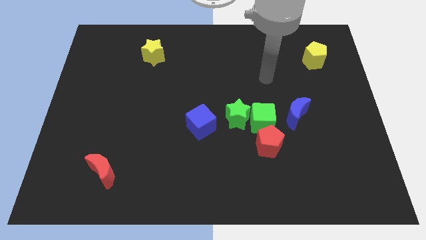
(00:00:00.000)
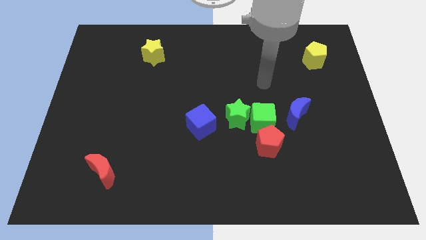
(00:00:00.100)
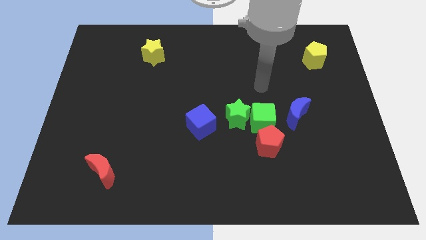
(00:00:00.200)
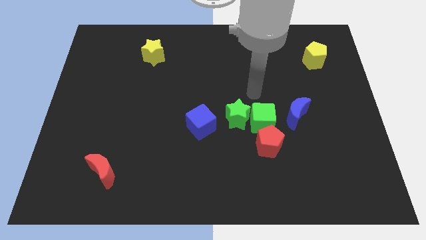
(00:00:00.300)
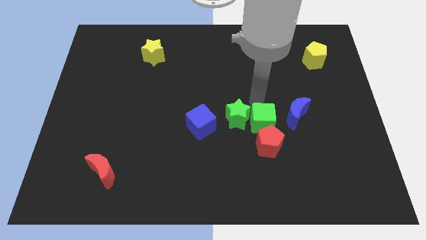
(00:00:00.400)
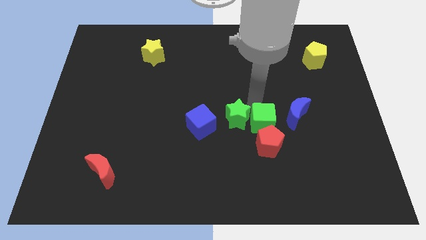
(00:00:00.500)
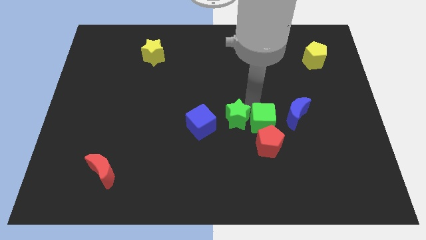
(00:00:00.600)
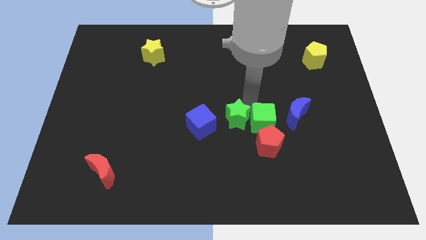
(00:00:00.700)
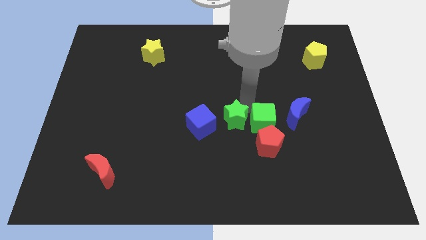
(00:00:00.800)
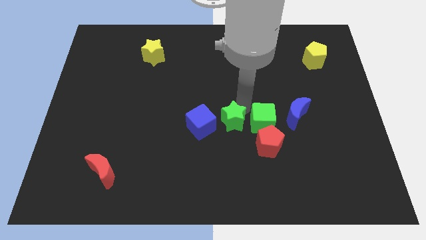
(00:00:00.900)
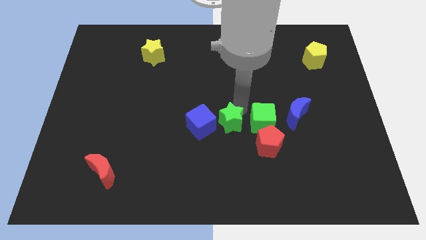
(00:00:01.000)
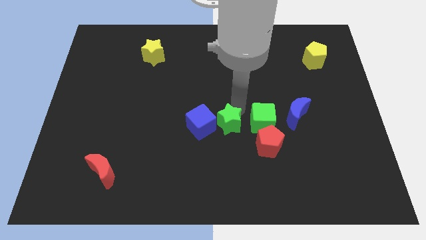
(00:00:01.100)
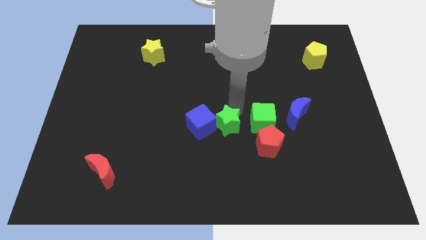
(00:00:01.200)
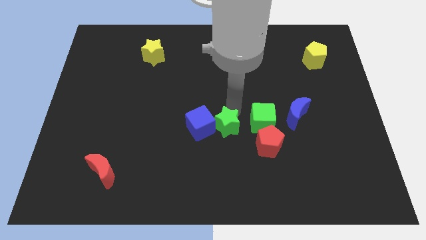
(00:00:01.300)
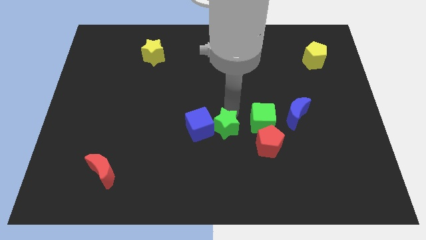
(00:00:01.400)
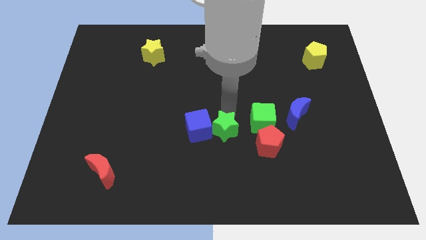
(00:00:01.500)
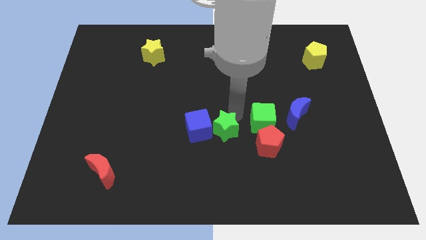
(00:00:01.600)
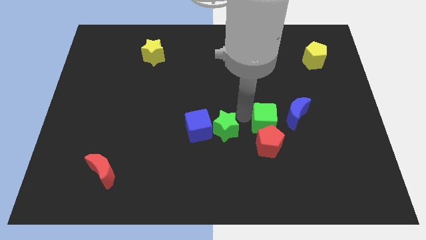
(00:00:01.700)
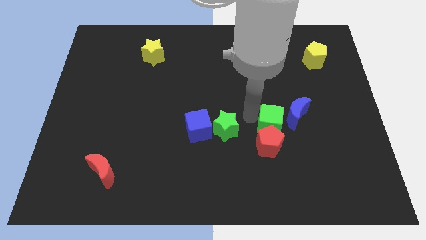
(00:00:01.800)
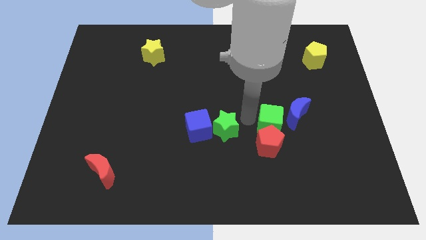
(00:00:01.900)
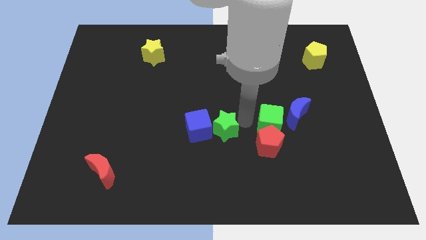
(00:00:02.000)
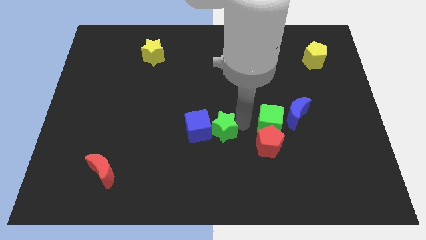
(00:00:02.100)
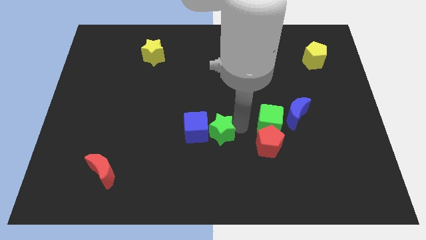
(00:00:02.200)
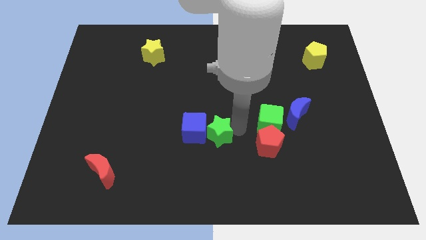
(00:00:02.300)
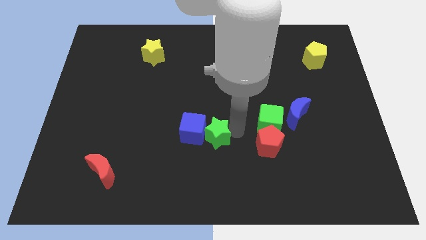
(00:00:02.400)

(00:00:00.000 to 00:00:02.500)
slightly push the green star diagonally downwards and left

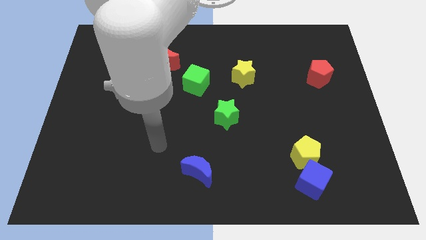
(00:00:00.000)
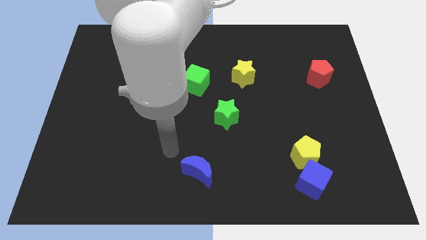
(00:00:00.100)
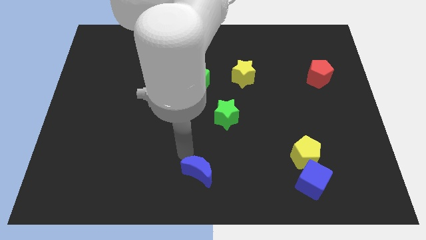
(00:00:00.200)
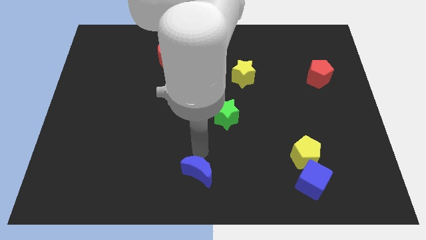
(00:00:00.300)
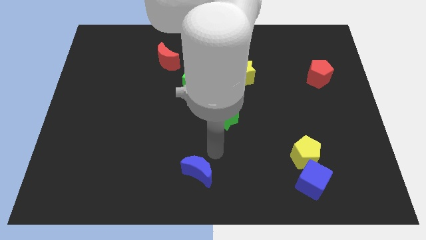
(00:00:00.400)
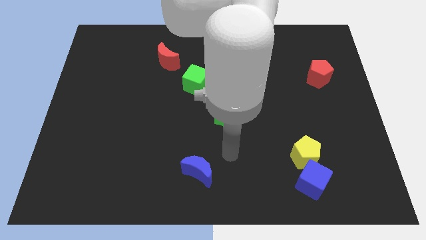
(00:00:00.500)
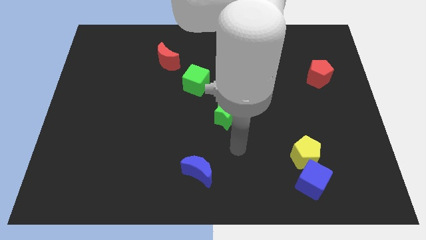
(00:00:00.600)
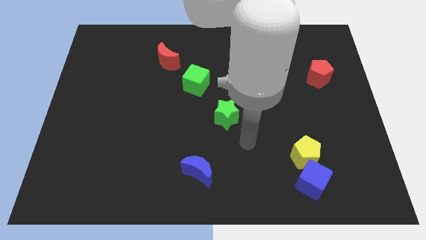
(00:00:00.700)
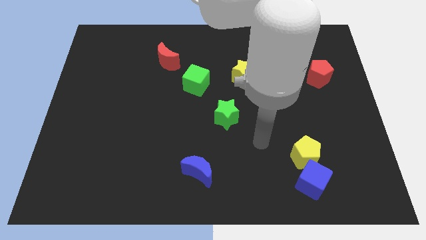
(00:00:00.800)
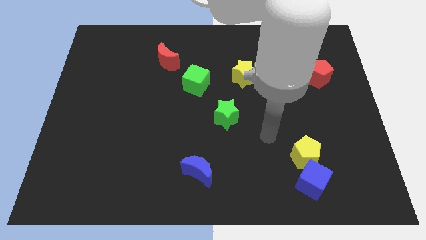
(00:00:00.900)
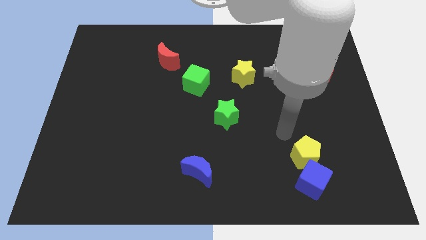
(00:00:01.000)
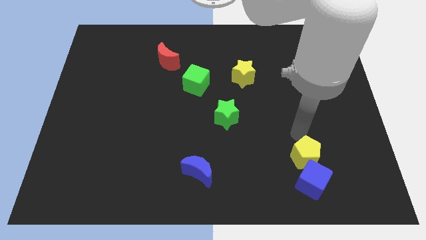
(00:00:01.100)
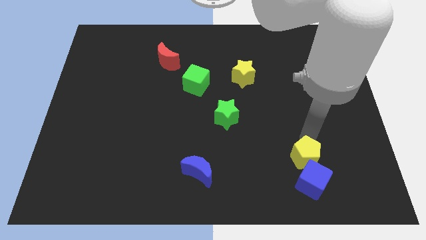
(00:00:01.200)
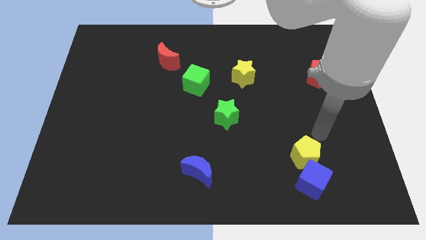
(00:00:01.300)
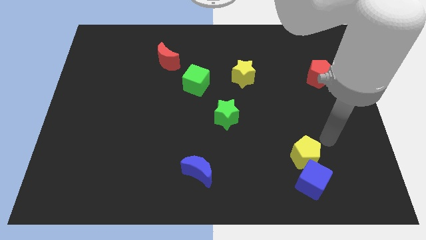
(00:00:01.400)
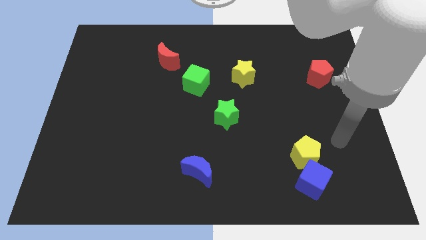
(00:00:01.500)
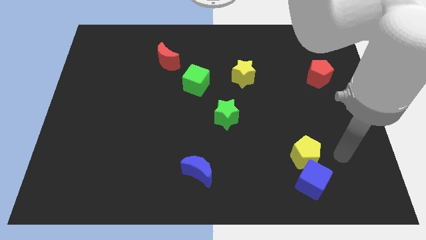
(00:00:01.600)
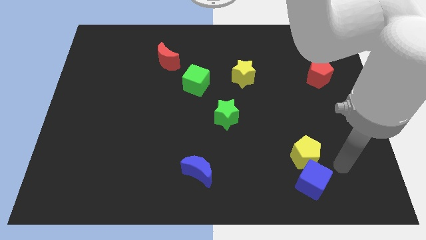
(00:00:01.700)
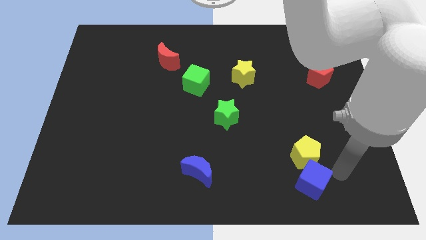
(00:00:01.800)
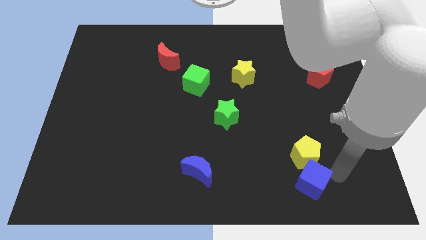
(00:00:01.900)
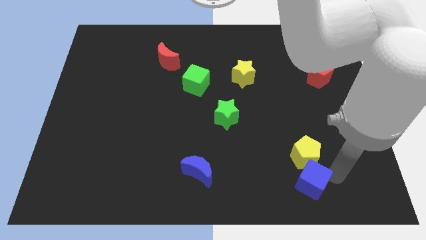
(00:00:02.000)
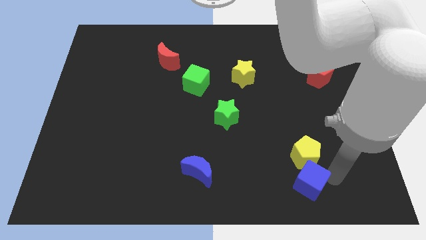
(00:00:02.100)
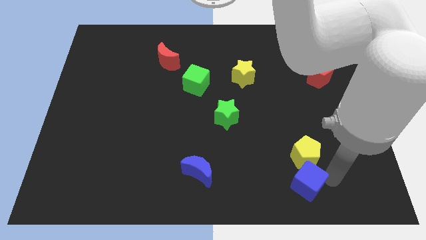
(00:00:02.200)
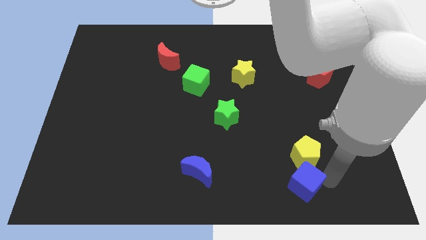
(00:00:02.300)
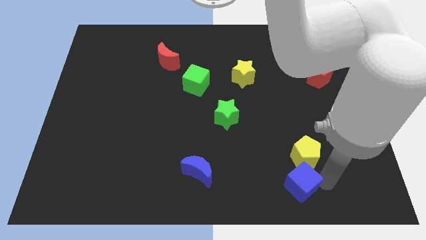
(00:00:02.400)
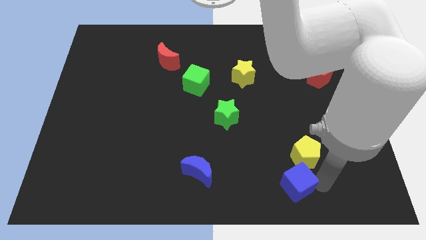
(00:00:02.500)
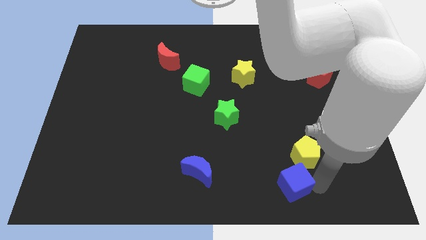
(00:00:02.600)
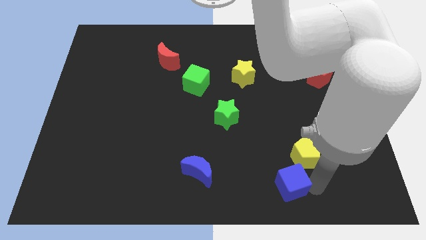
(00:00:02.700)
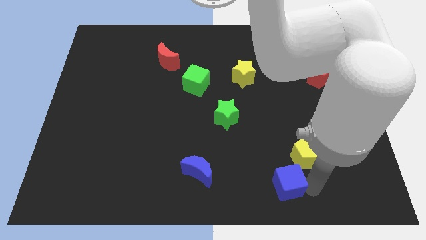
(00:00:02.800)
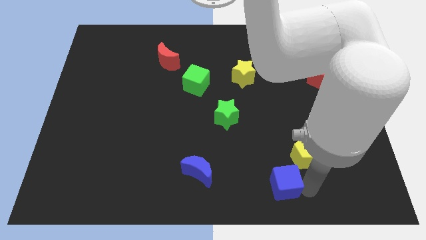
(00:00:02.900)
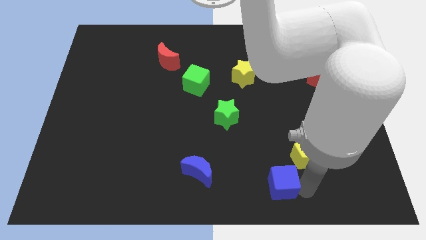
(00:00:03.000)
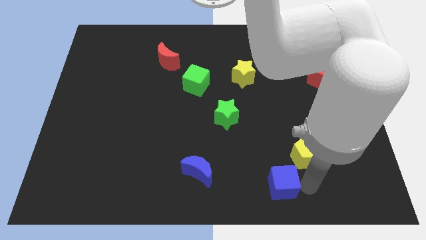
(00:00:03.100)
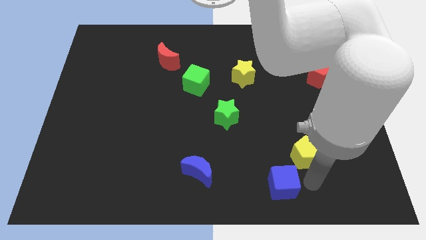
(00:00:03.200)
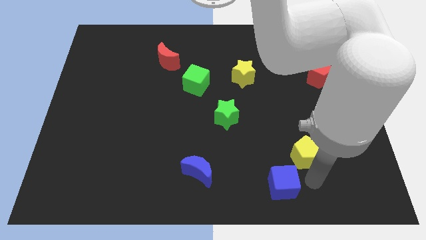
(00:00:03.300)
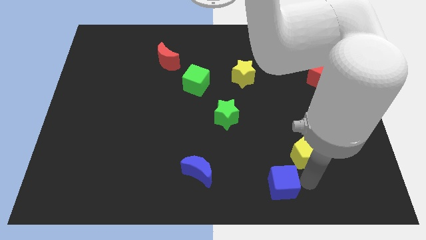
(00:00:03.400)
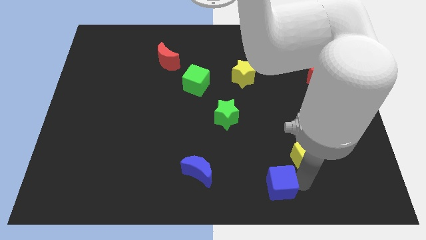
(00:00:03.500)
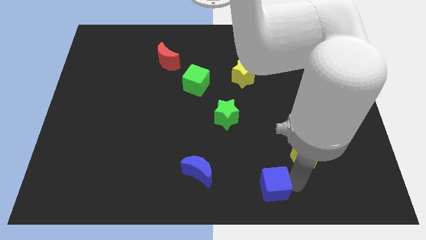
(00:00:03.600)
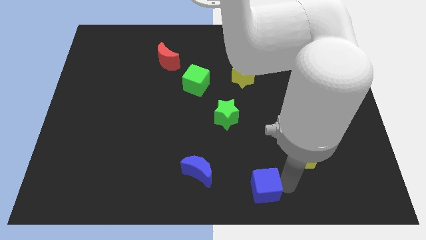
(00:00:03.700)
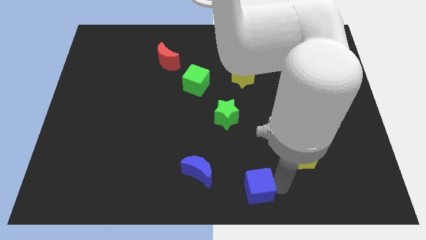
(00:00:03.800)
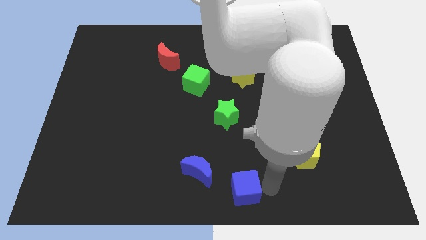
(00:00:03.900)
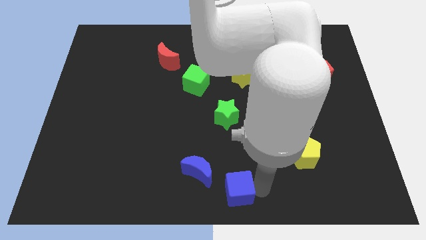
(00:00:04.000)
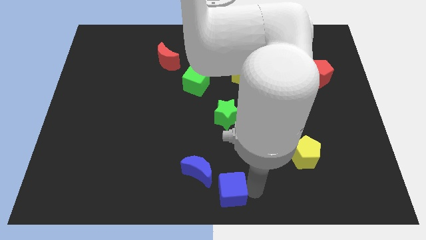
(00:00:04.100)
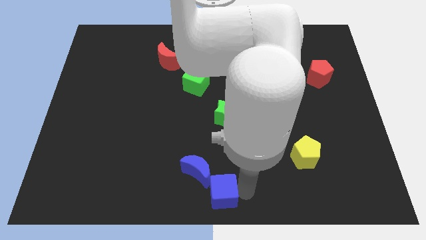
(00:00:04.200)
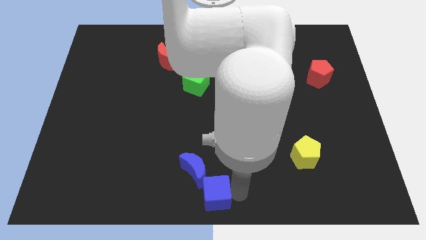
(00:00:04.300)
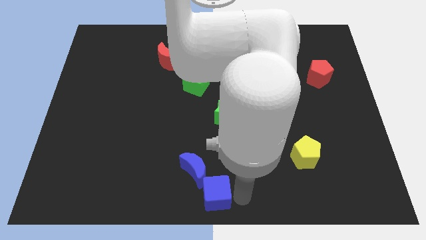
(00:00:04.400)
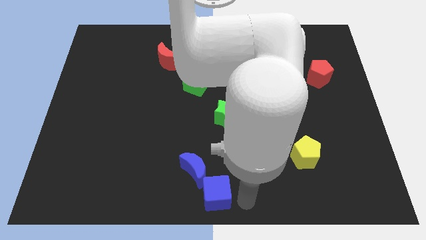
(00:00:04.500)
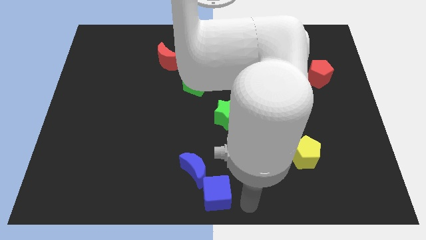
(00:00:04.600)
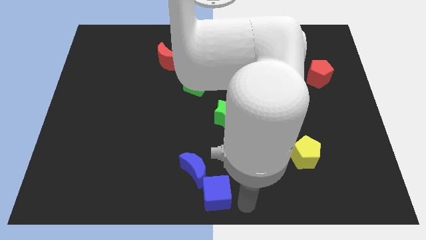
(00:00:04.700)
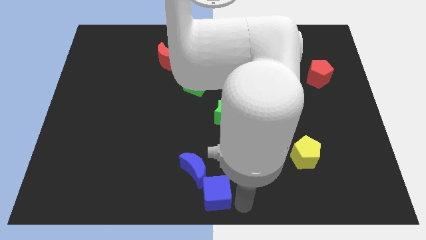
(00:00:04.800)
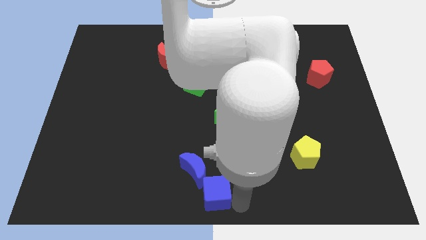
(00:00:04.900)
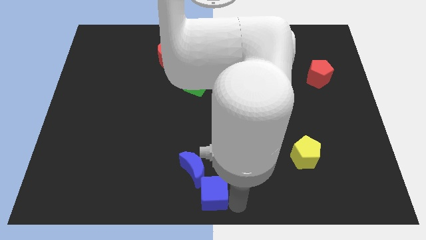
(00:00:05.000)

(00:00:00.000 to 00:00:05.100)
move the blue cube left

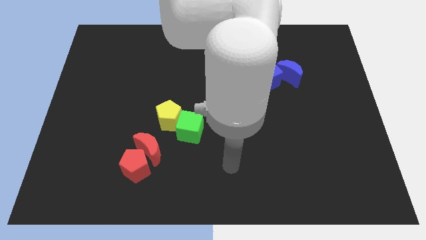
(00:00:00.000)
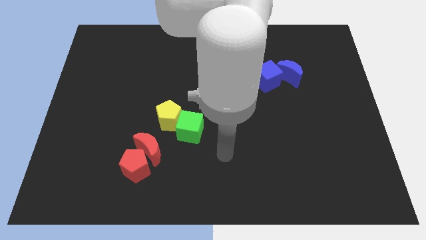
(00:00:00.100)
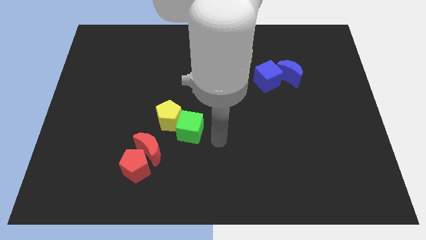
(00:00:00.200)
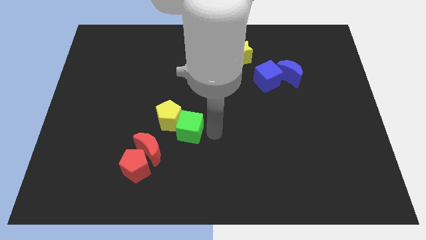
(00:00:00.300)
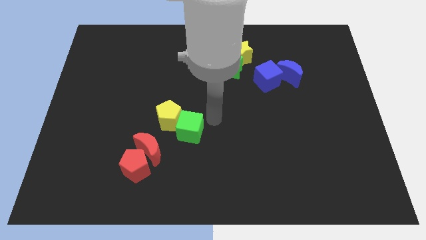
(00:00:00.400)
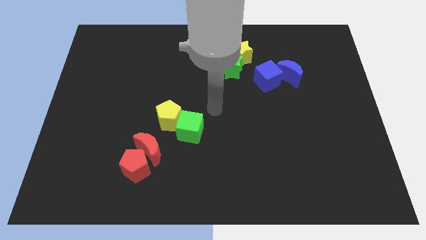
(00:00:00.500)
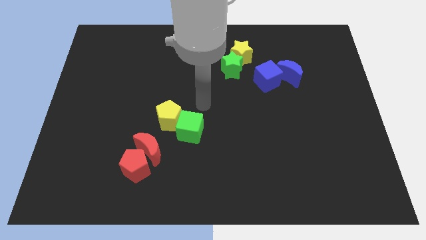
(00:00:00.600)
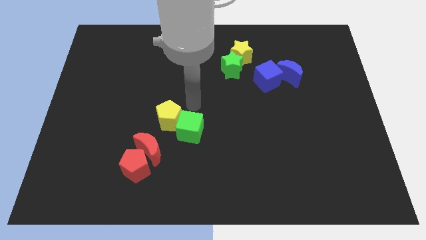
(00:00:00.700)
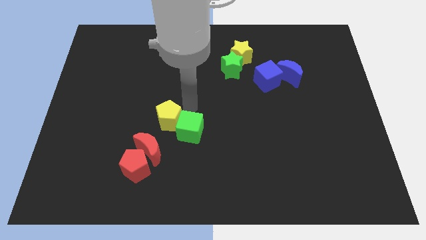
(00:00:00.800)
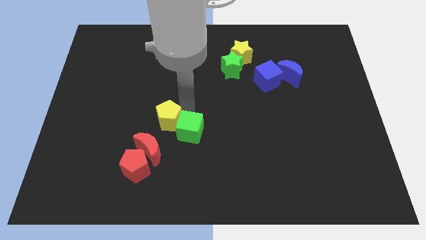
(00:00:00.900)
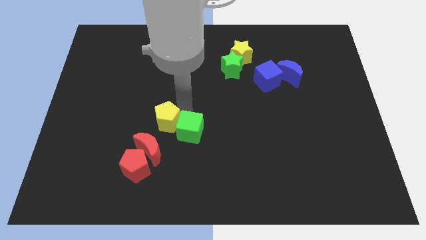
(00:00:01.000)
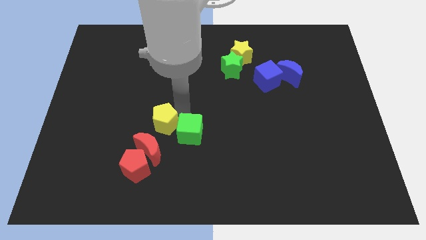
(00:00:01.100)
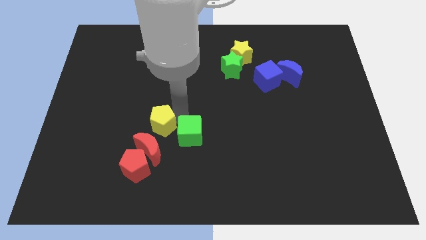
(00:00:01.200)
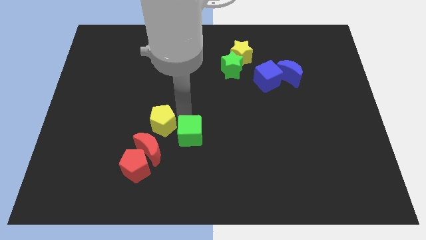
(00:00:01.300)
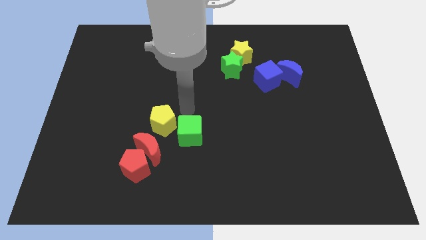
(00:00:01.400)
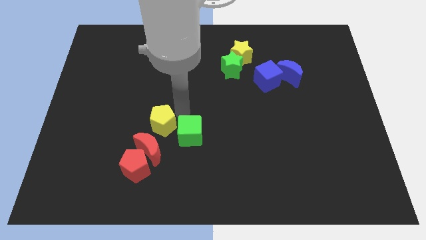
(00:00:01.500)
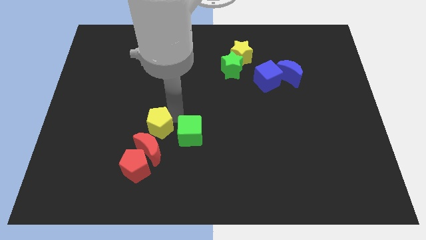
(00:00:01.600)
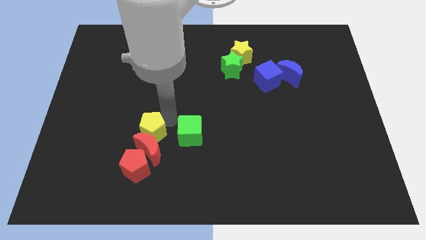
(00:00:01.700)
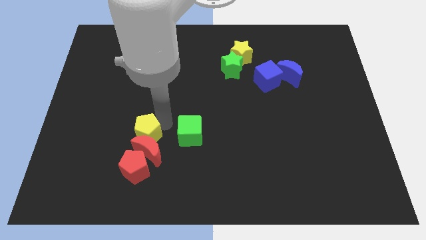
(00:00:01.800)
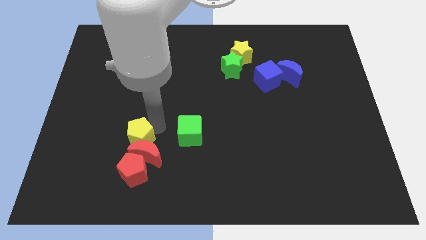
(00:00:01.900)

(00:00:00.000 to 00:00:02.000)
slightly push the yellow pentagon downwards and left
